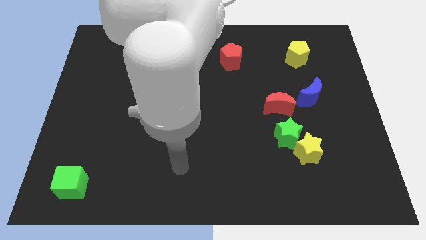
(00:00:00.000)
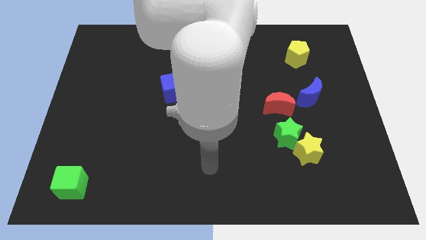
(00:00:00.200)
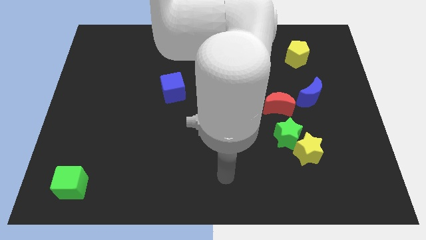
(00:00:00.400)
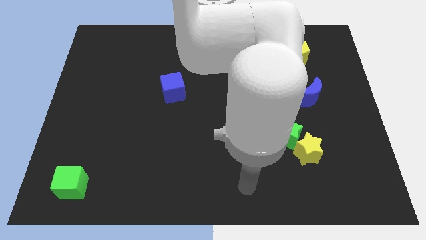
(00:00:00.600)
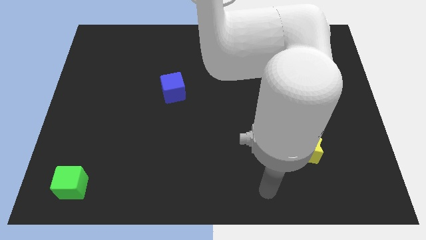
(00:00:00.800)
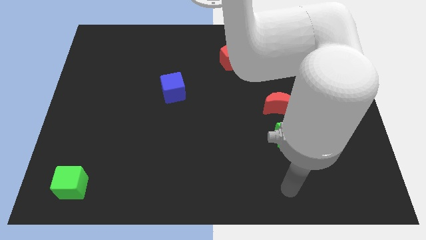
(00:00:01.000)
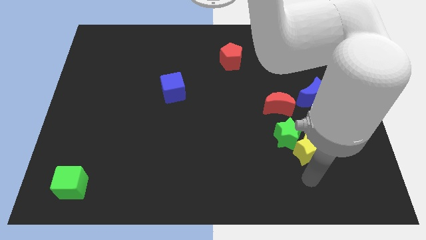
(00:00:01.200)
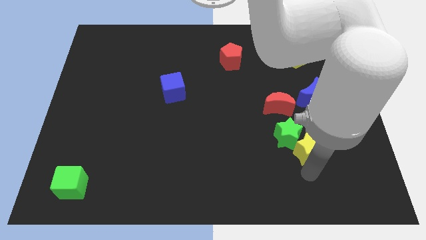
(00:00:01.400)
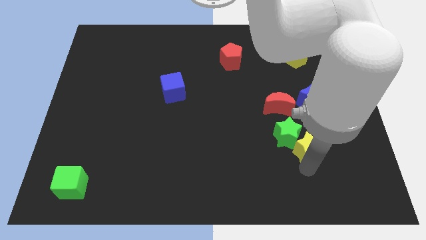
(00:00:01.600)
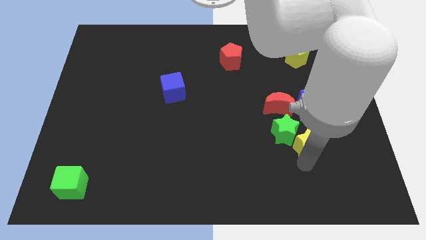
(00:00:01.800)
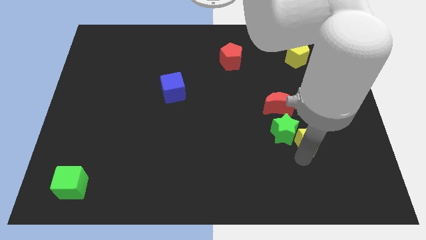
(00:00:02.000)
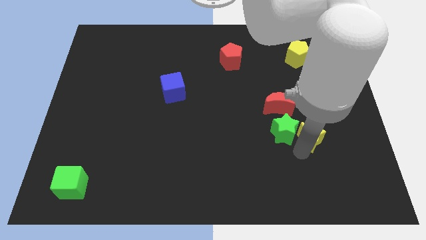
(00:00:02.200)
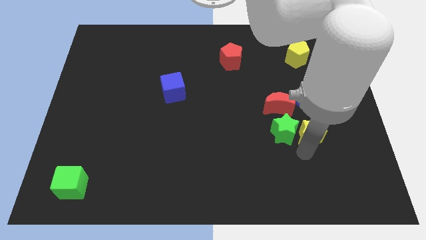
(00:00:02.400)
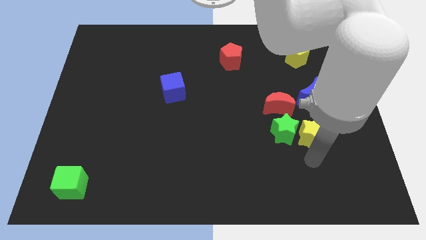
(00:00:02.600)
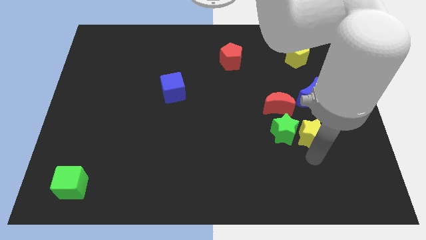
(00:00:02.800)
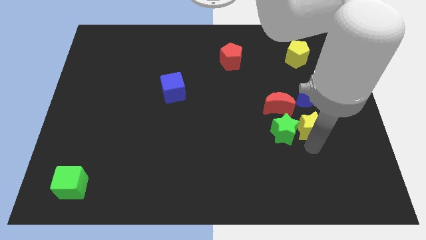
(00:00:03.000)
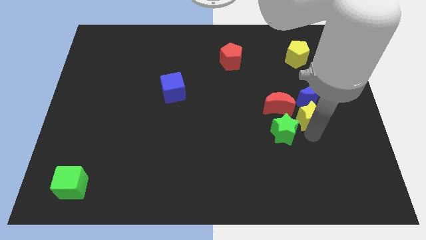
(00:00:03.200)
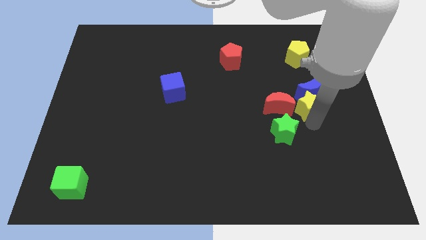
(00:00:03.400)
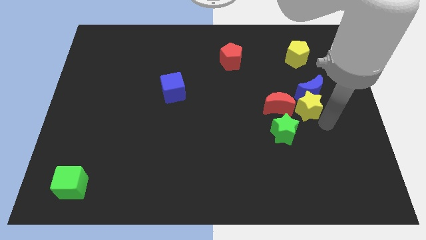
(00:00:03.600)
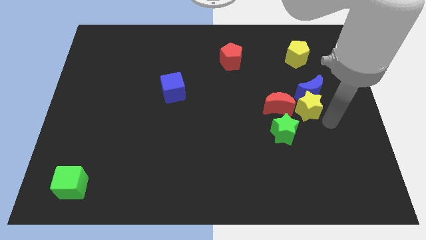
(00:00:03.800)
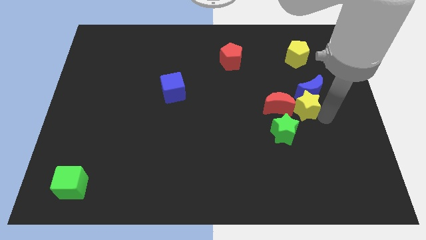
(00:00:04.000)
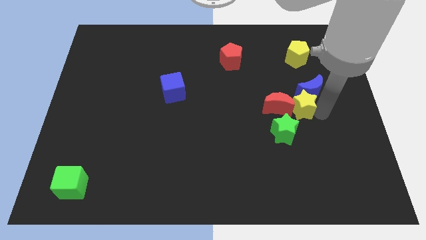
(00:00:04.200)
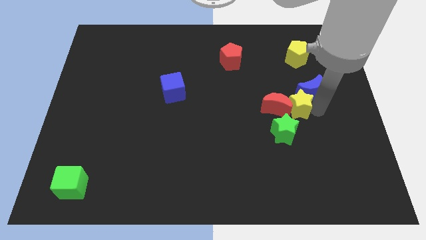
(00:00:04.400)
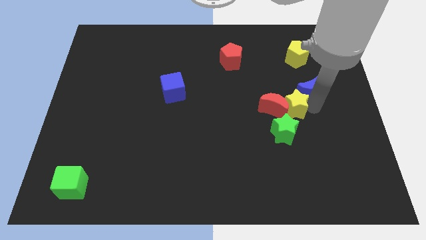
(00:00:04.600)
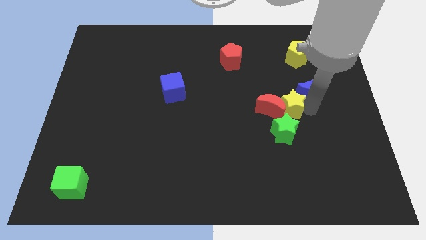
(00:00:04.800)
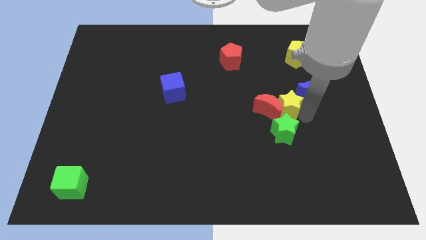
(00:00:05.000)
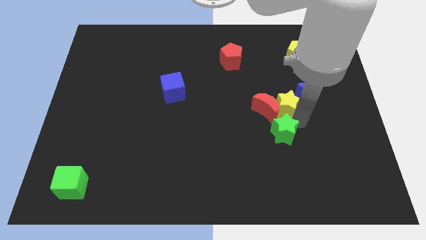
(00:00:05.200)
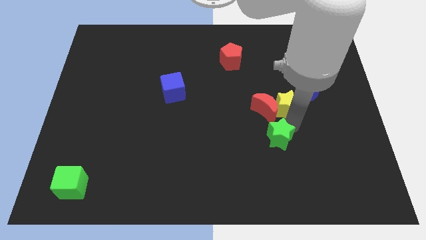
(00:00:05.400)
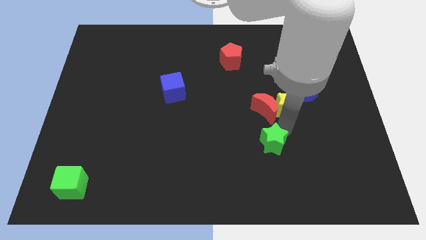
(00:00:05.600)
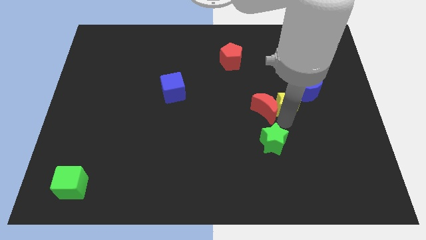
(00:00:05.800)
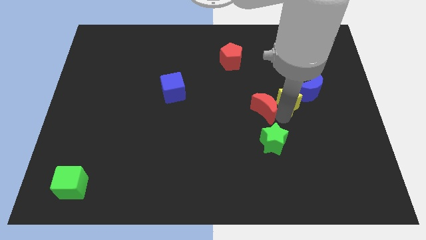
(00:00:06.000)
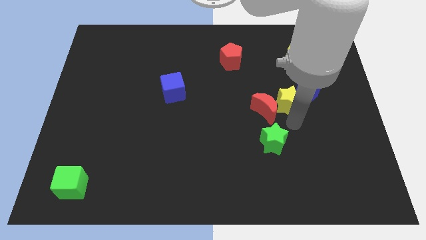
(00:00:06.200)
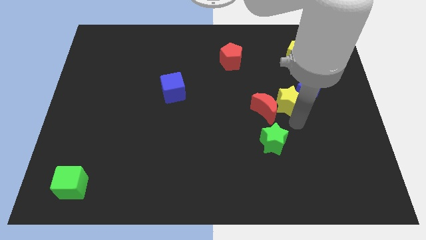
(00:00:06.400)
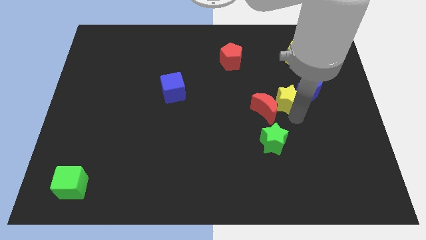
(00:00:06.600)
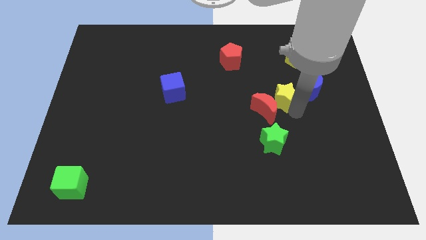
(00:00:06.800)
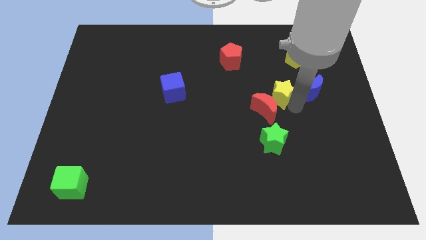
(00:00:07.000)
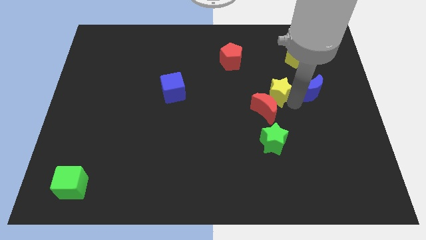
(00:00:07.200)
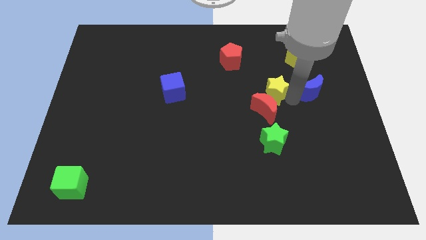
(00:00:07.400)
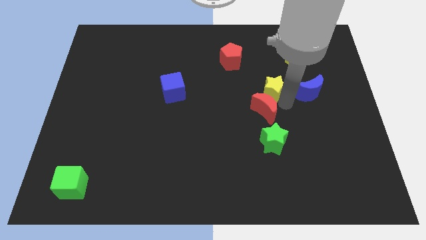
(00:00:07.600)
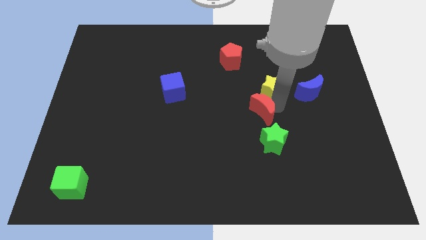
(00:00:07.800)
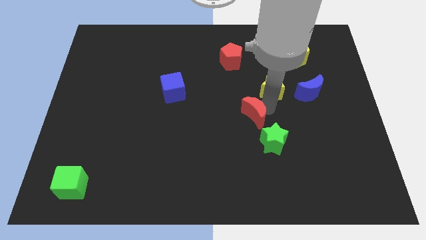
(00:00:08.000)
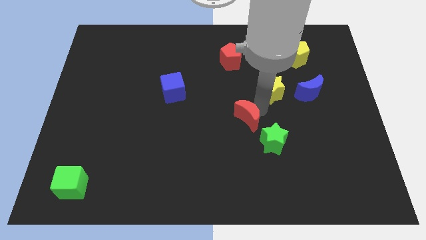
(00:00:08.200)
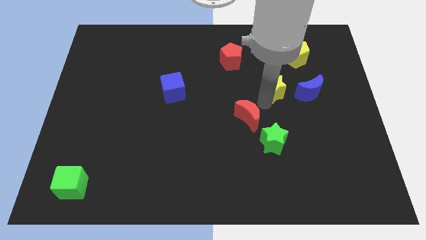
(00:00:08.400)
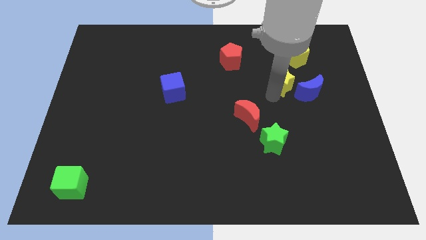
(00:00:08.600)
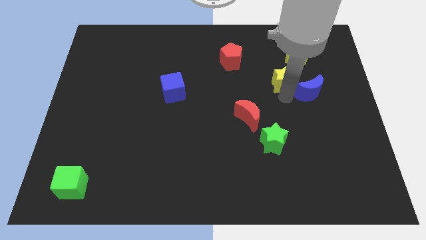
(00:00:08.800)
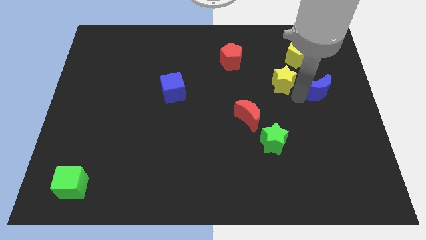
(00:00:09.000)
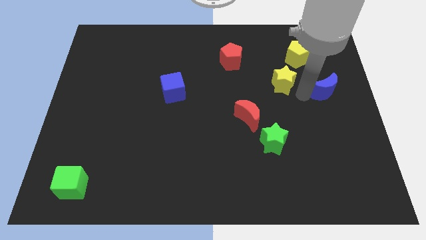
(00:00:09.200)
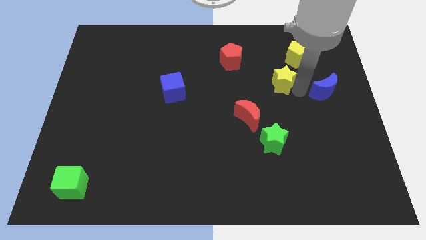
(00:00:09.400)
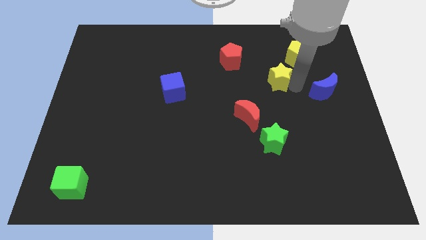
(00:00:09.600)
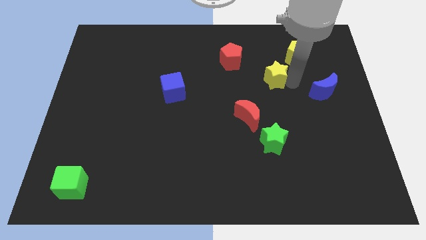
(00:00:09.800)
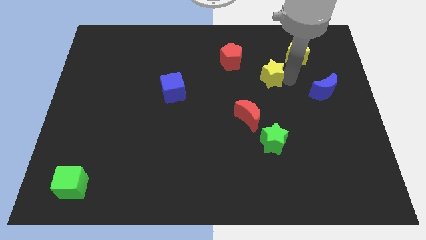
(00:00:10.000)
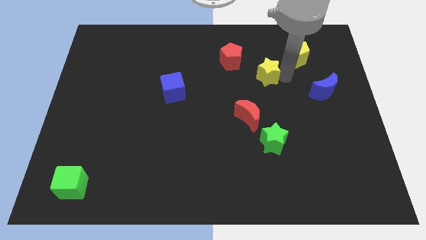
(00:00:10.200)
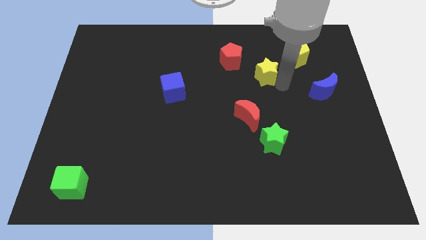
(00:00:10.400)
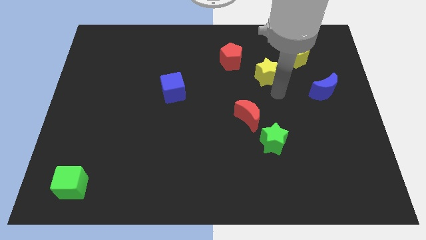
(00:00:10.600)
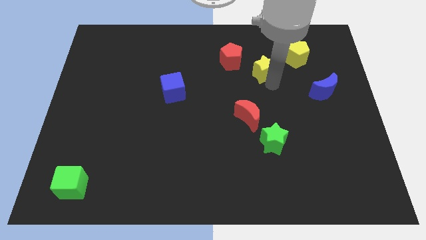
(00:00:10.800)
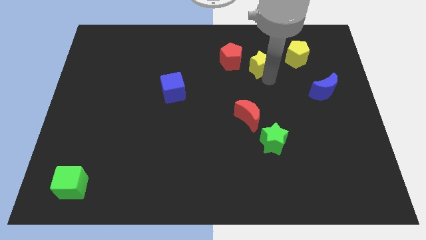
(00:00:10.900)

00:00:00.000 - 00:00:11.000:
put the yellow star just left of the yellow pentagon
